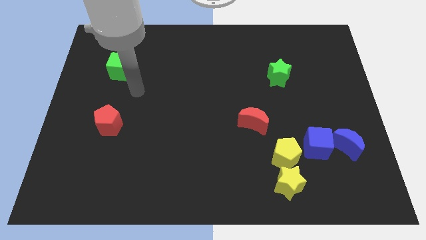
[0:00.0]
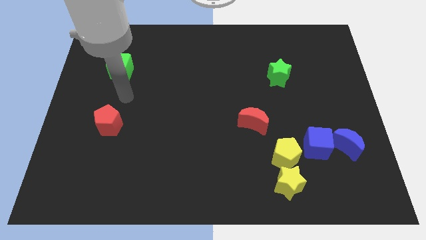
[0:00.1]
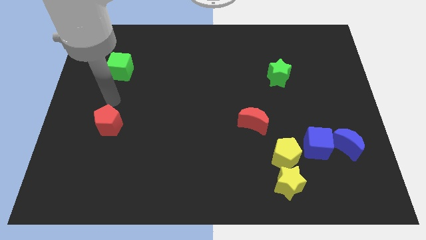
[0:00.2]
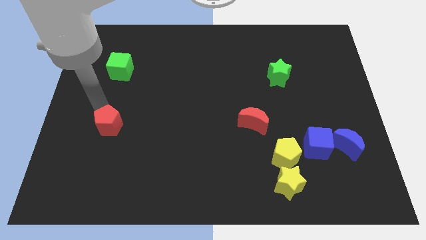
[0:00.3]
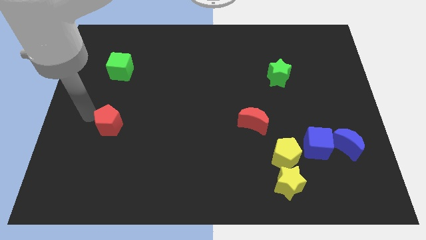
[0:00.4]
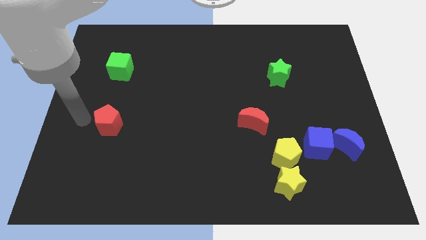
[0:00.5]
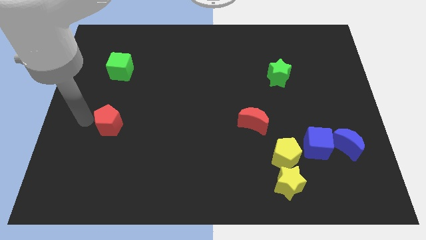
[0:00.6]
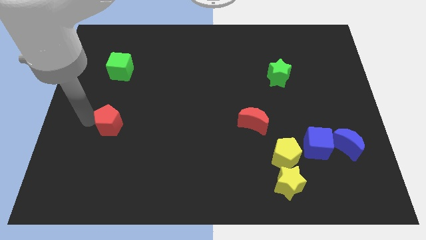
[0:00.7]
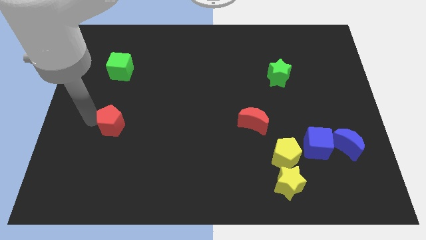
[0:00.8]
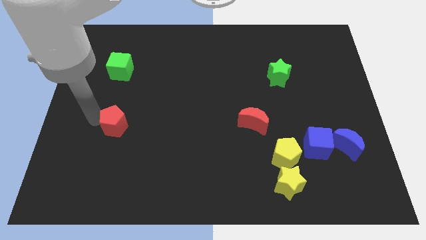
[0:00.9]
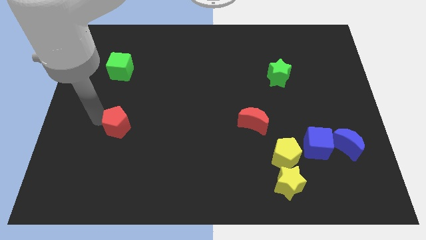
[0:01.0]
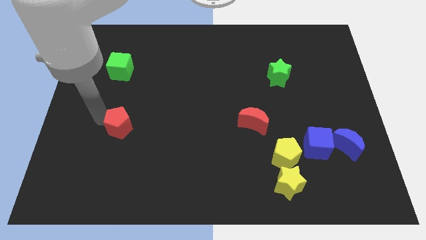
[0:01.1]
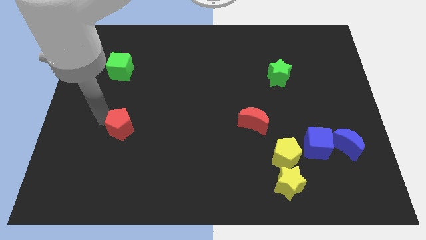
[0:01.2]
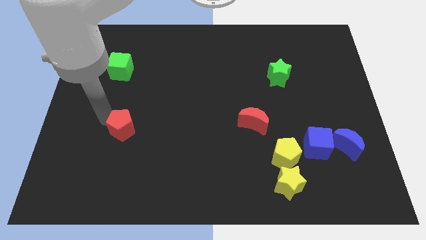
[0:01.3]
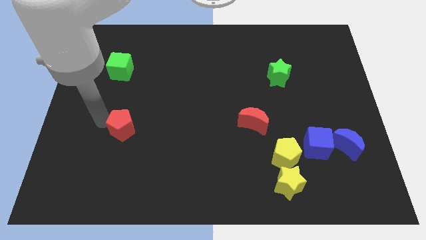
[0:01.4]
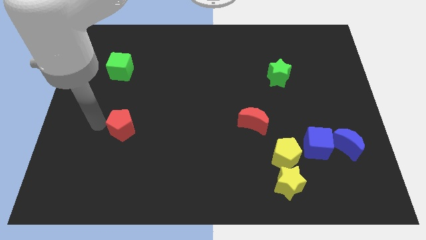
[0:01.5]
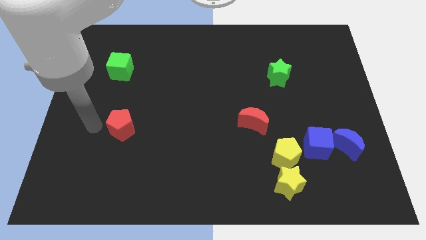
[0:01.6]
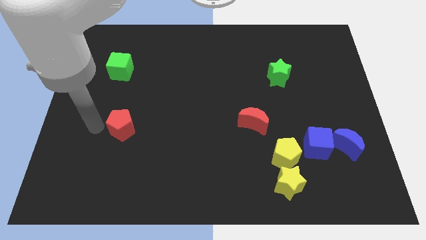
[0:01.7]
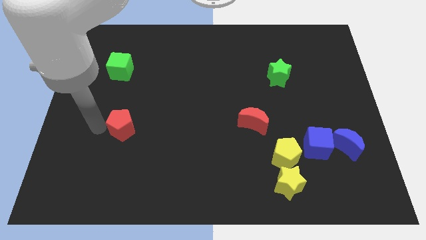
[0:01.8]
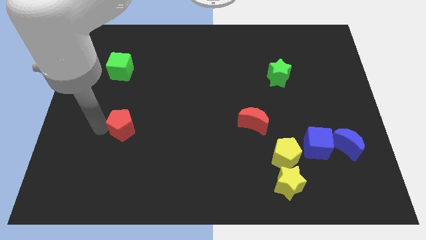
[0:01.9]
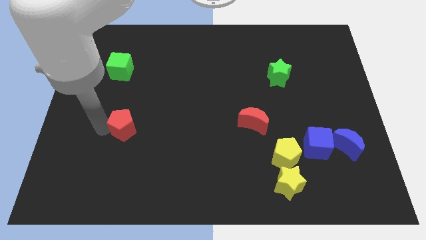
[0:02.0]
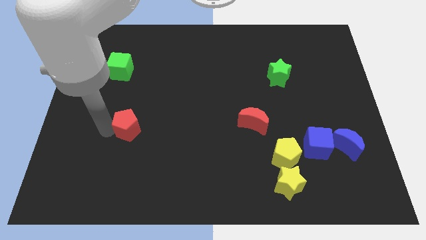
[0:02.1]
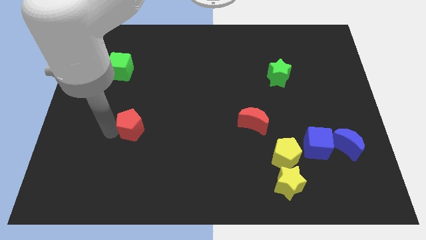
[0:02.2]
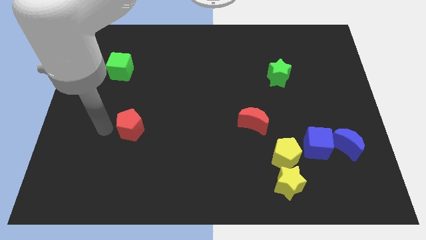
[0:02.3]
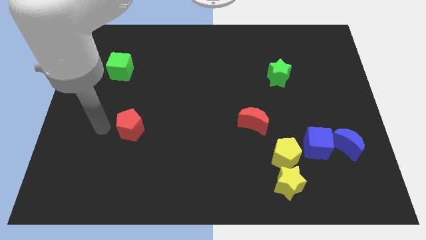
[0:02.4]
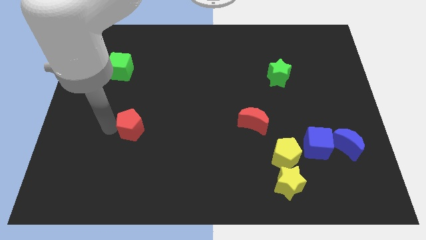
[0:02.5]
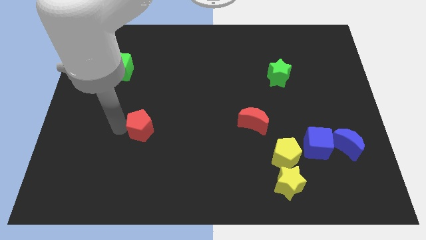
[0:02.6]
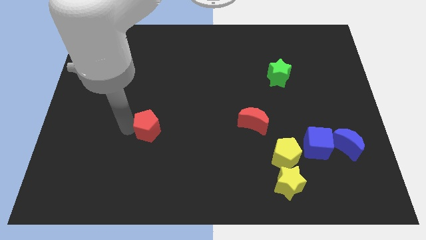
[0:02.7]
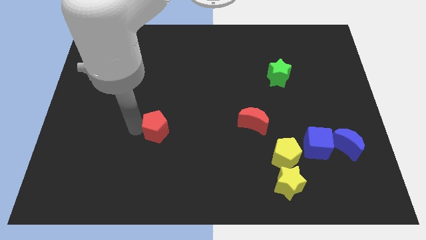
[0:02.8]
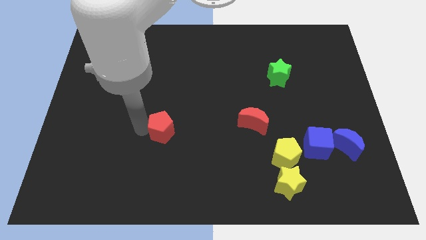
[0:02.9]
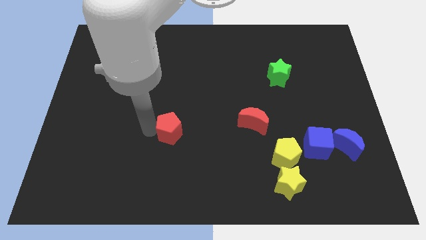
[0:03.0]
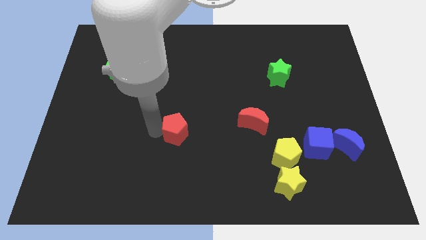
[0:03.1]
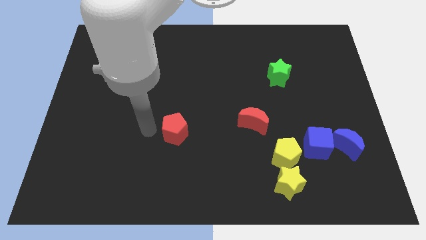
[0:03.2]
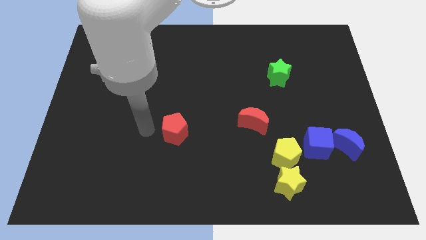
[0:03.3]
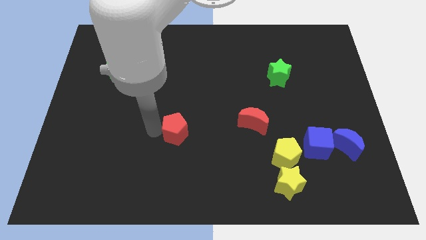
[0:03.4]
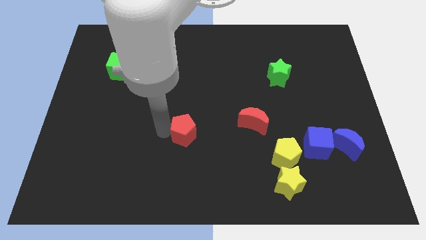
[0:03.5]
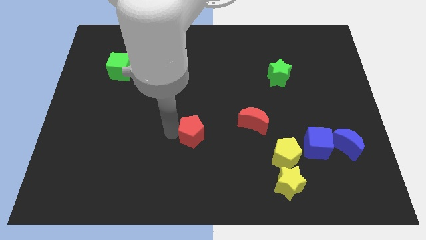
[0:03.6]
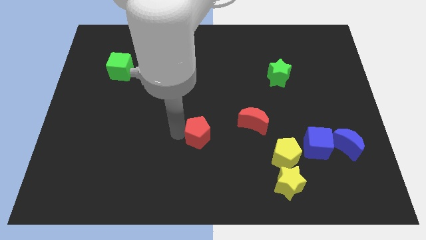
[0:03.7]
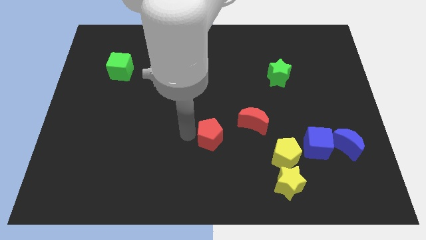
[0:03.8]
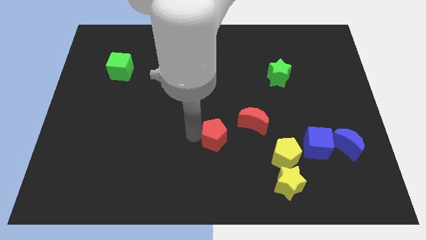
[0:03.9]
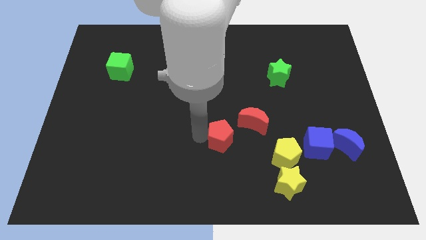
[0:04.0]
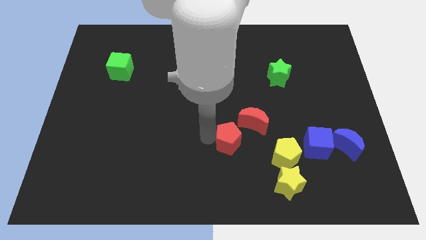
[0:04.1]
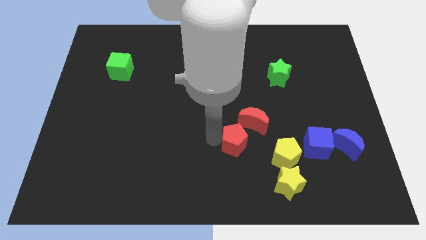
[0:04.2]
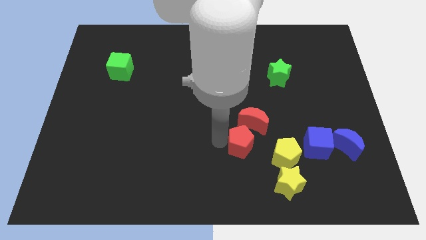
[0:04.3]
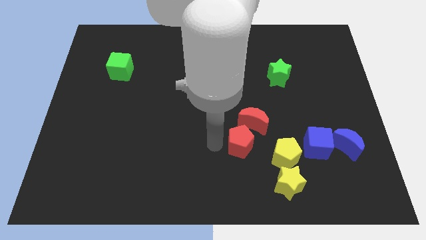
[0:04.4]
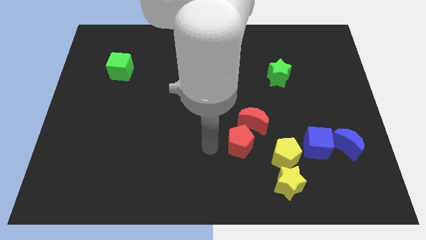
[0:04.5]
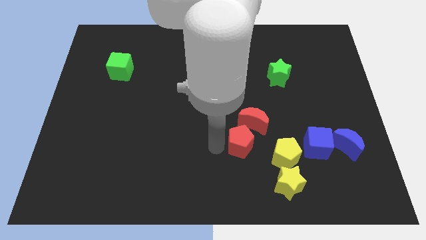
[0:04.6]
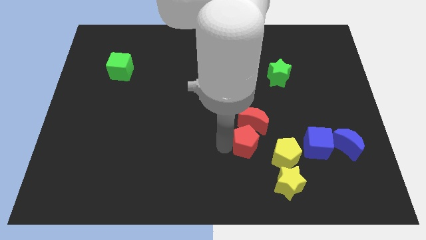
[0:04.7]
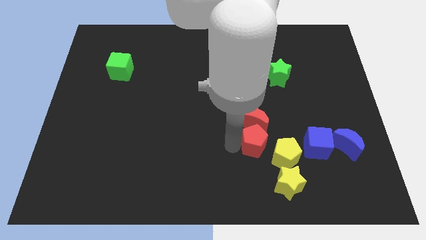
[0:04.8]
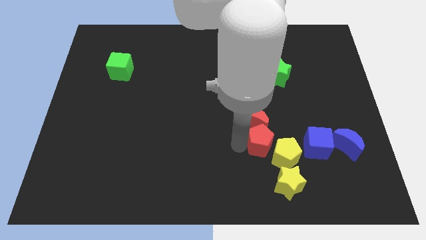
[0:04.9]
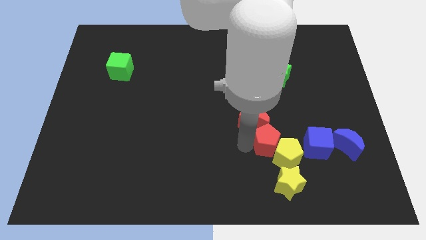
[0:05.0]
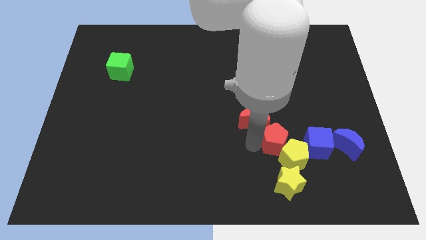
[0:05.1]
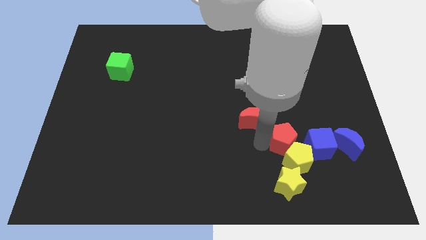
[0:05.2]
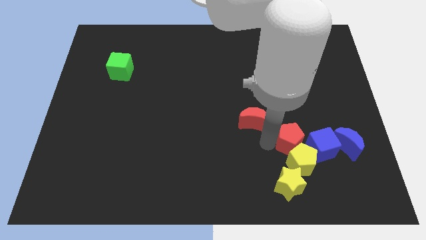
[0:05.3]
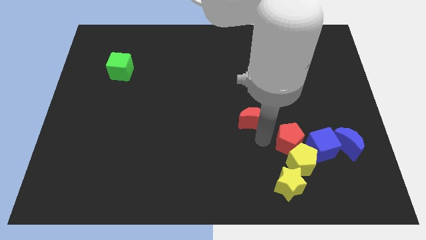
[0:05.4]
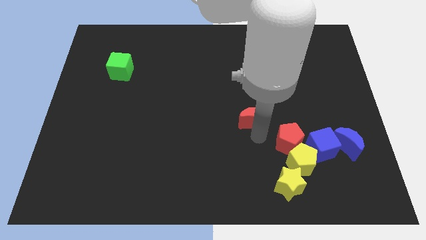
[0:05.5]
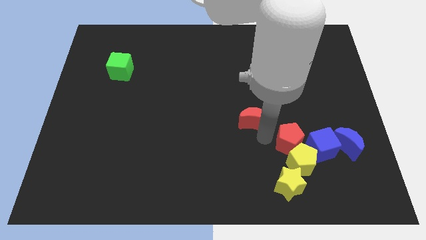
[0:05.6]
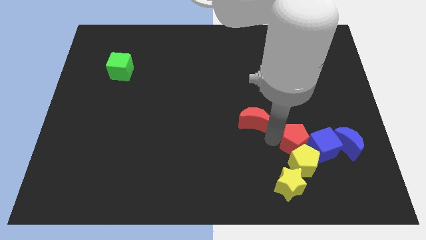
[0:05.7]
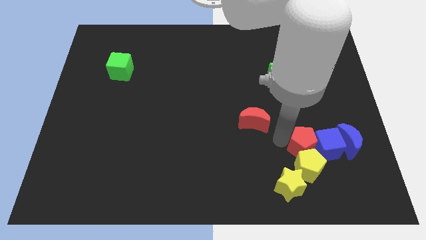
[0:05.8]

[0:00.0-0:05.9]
slide the red pentagon to the blue cube

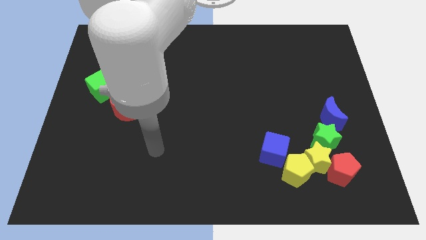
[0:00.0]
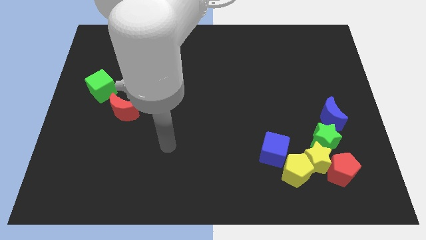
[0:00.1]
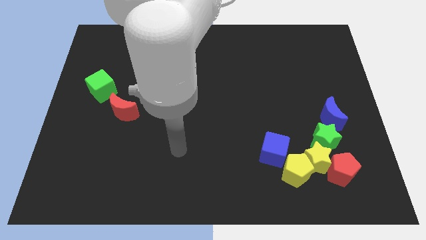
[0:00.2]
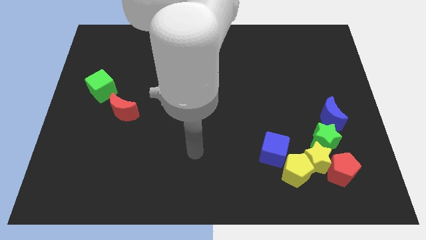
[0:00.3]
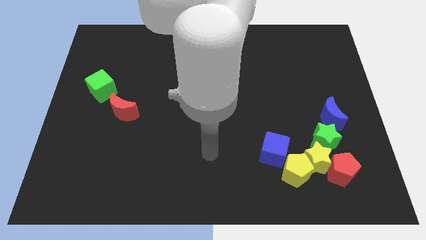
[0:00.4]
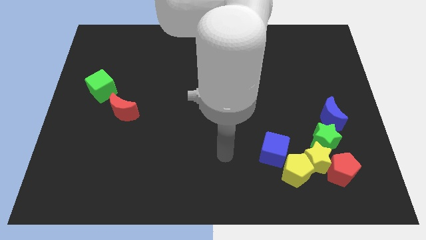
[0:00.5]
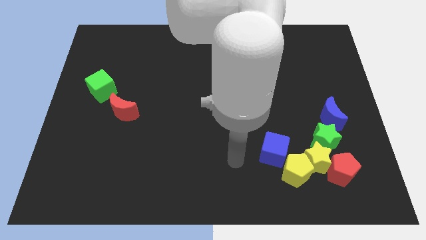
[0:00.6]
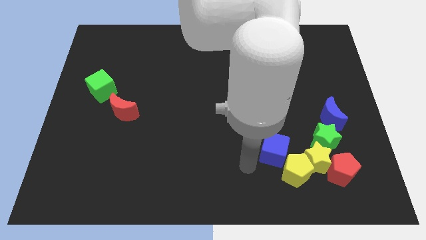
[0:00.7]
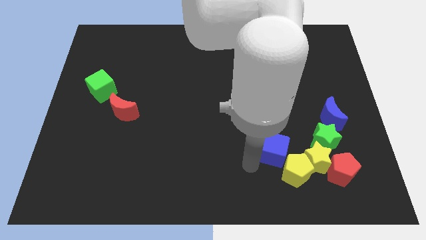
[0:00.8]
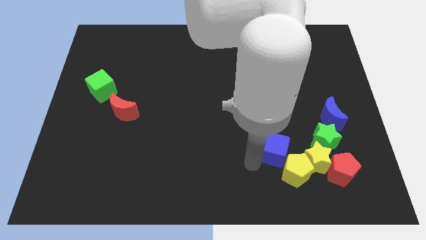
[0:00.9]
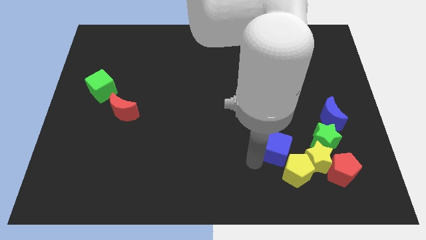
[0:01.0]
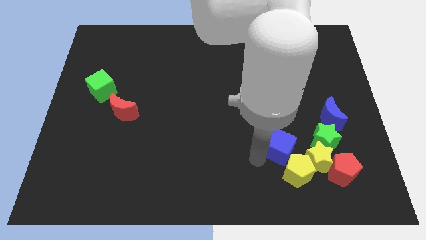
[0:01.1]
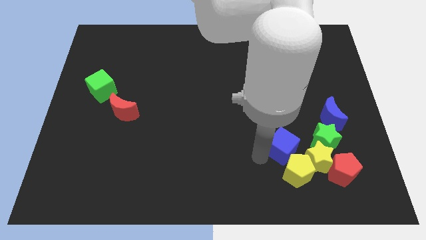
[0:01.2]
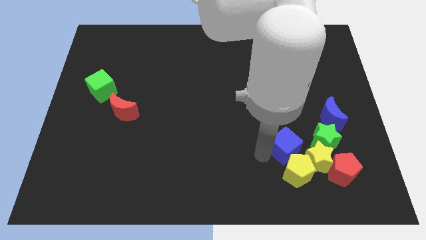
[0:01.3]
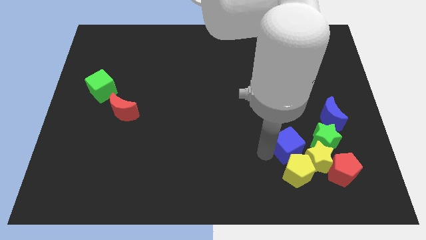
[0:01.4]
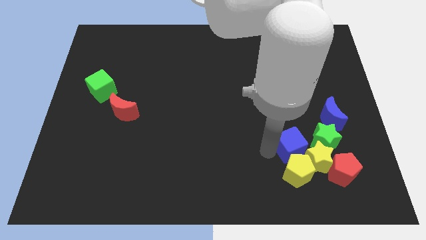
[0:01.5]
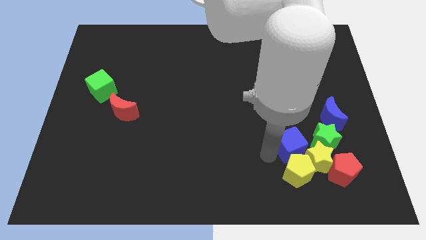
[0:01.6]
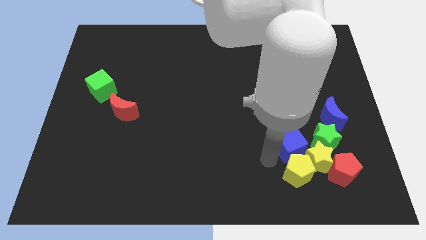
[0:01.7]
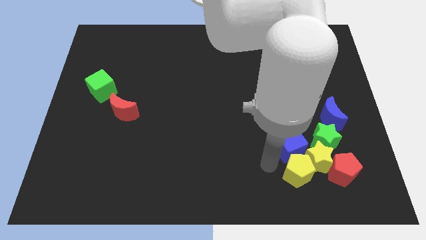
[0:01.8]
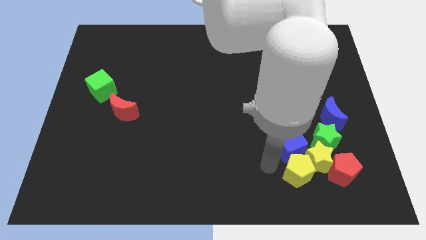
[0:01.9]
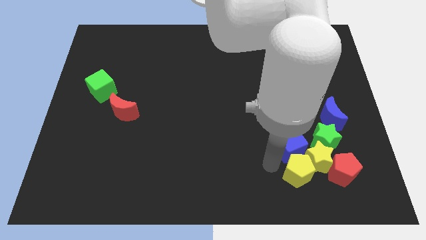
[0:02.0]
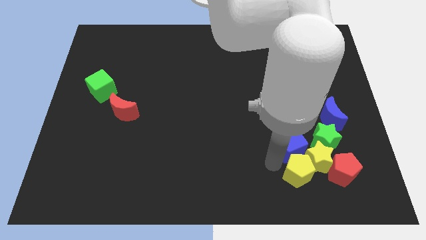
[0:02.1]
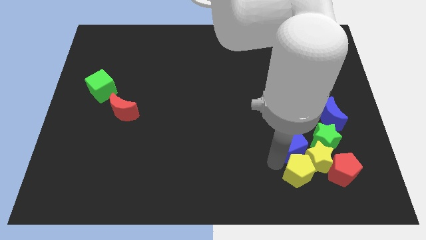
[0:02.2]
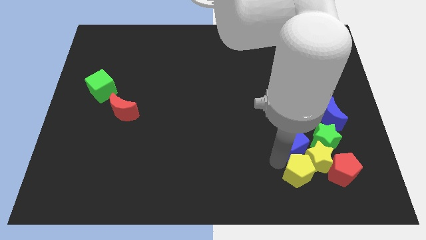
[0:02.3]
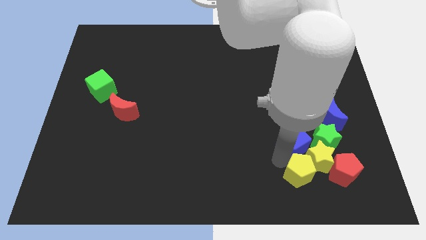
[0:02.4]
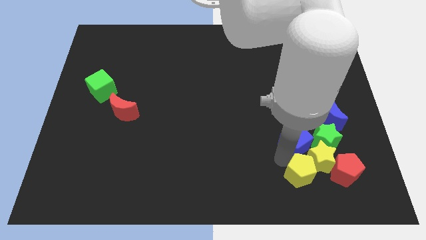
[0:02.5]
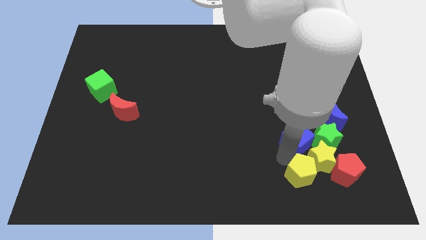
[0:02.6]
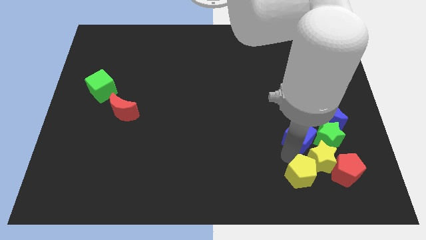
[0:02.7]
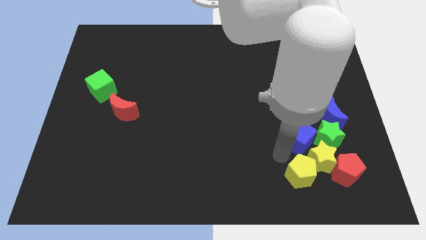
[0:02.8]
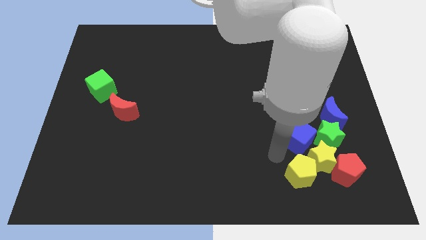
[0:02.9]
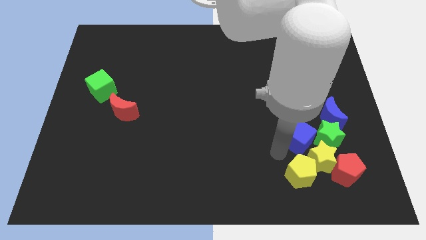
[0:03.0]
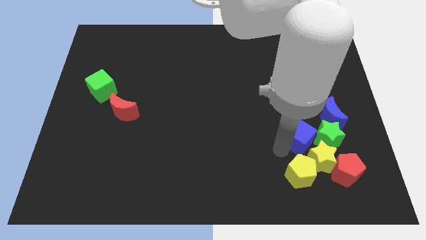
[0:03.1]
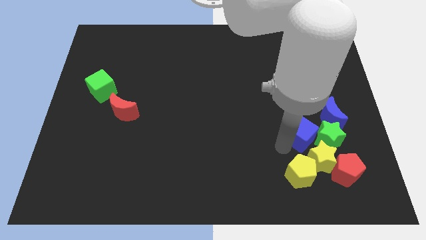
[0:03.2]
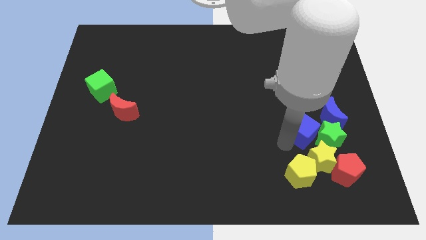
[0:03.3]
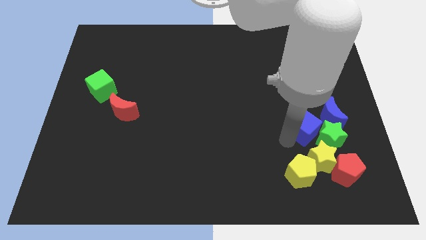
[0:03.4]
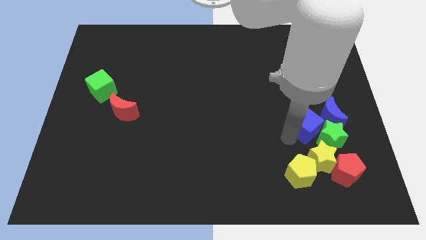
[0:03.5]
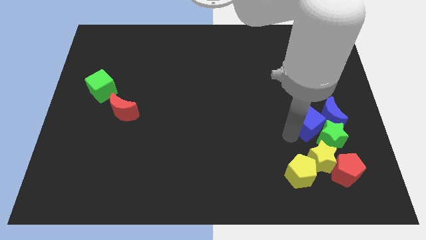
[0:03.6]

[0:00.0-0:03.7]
put the blue cube towards the blue moon
